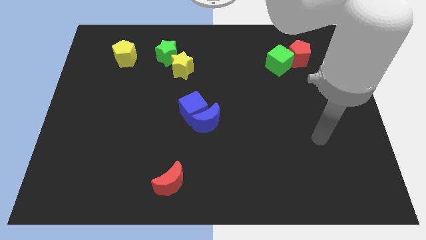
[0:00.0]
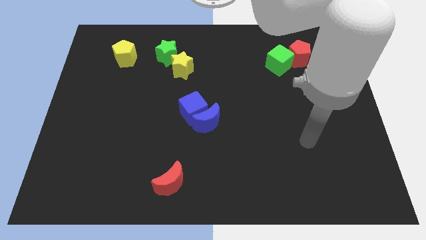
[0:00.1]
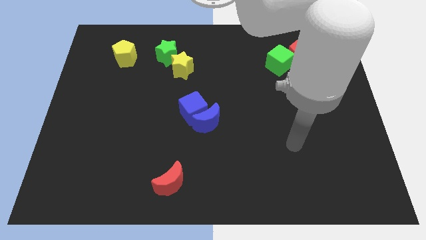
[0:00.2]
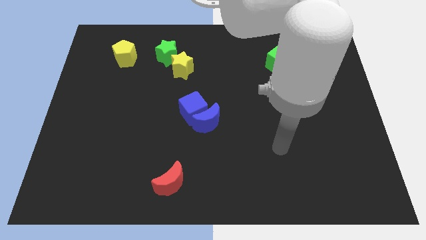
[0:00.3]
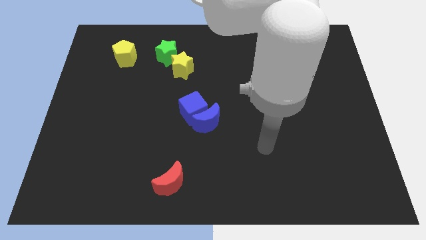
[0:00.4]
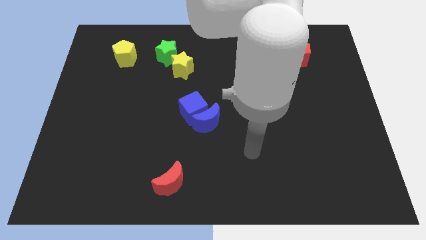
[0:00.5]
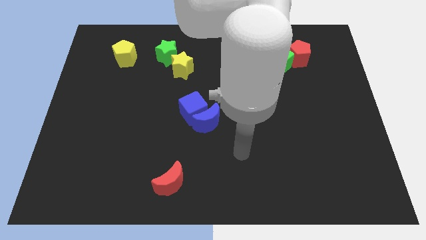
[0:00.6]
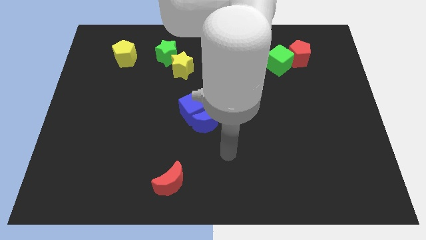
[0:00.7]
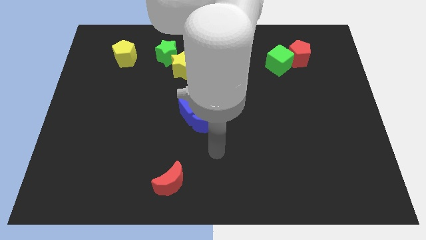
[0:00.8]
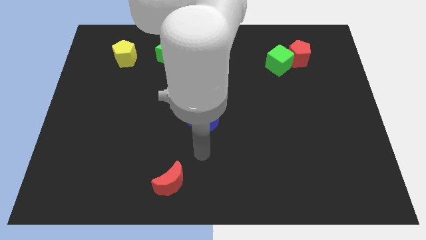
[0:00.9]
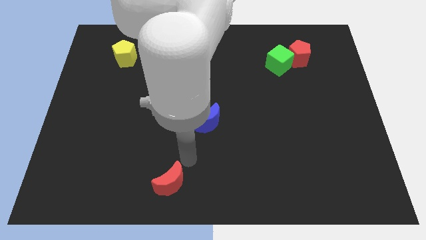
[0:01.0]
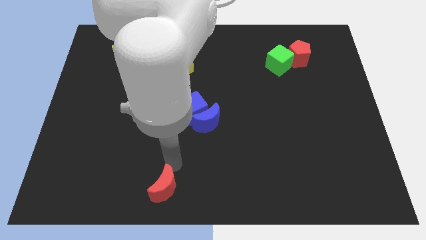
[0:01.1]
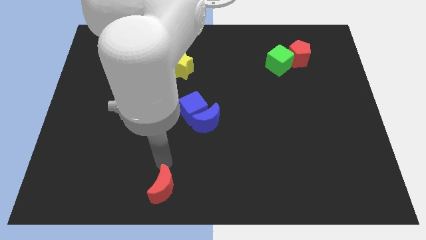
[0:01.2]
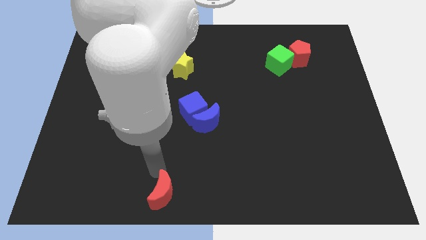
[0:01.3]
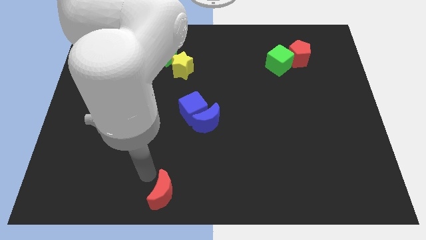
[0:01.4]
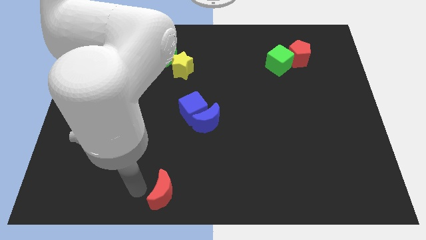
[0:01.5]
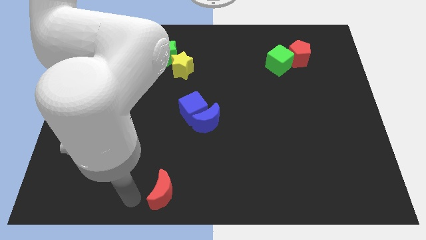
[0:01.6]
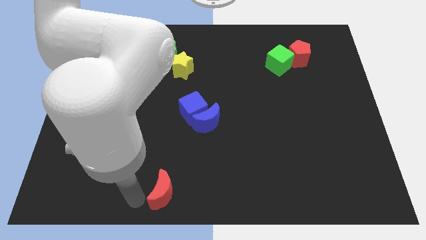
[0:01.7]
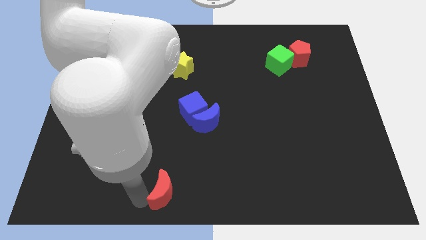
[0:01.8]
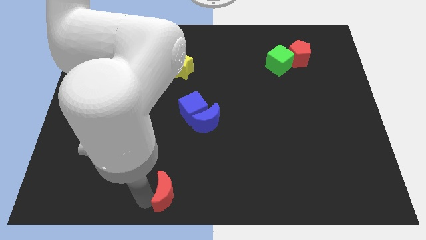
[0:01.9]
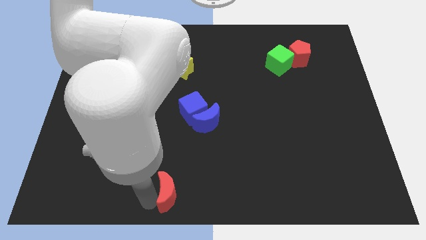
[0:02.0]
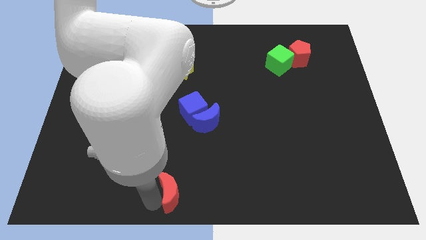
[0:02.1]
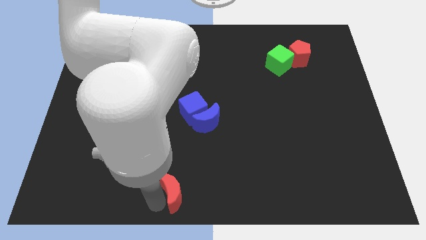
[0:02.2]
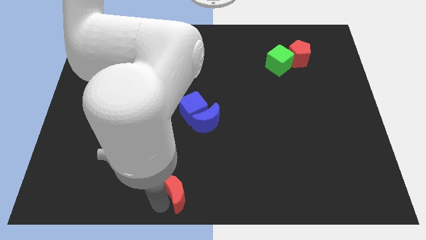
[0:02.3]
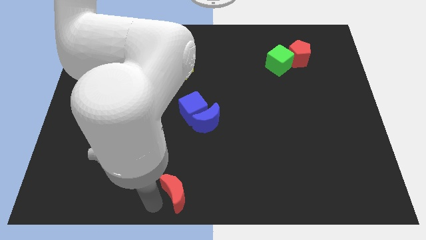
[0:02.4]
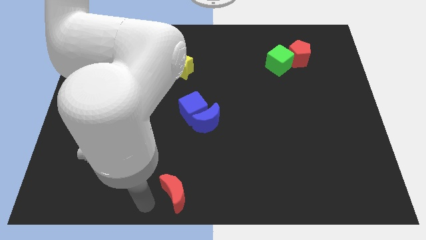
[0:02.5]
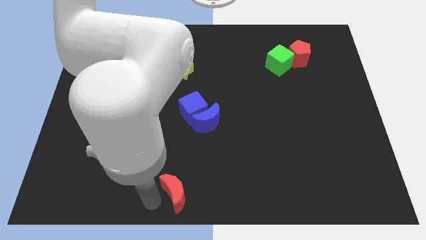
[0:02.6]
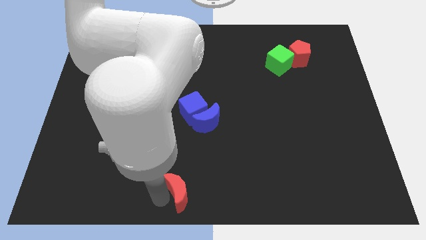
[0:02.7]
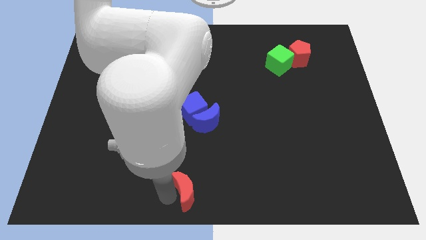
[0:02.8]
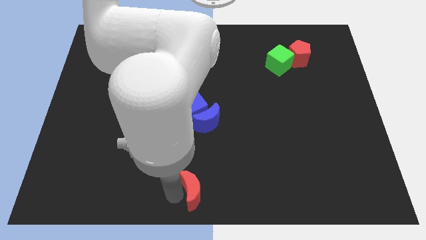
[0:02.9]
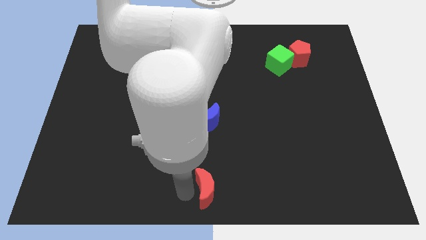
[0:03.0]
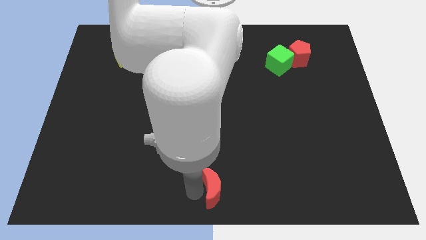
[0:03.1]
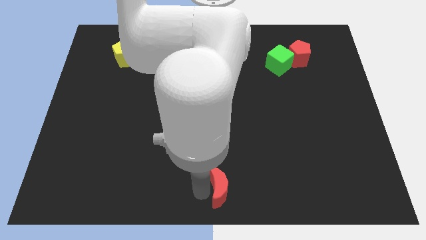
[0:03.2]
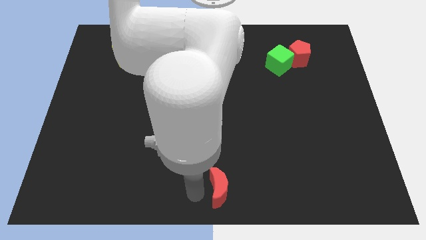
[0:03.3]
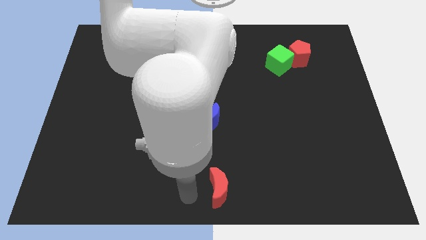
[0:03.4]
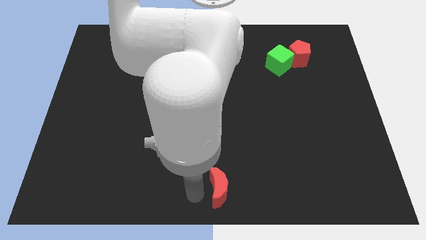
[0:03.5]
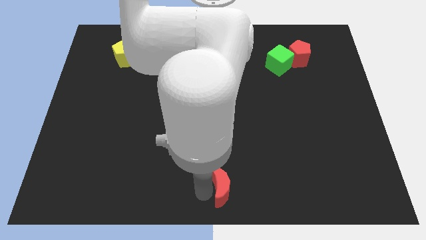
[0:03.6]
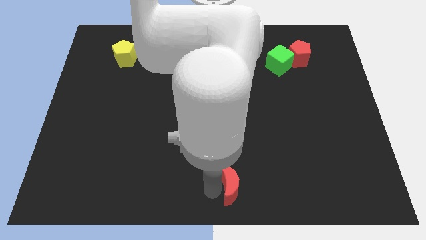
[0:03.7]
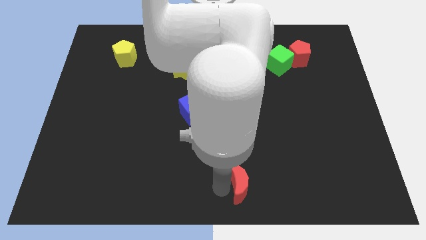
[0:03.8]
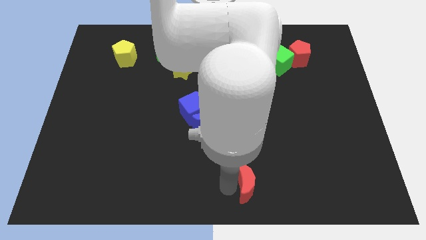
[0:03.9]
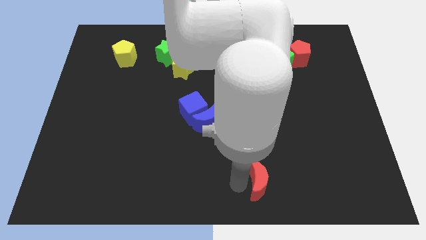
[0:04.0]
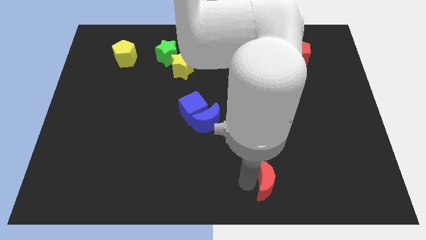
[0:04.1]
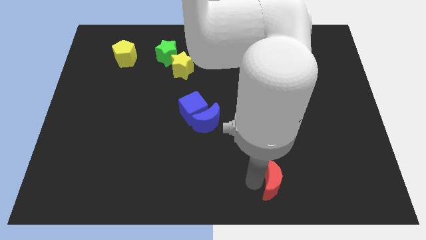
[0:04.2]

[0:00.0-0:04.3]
slide the red moon right

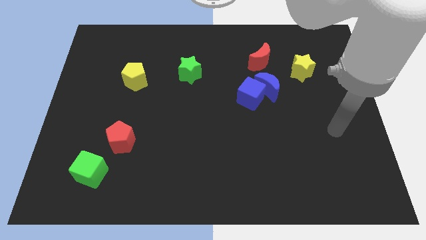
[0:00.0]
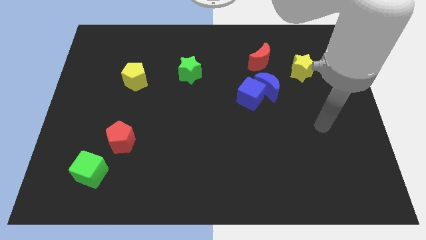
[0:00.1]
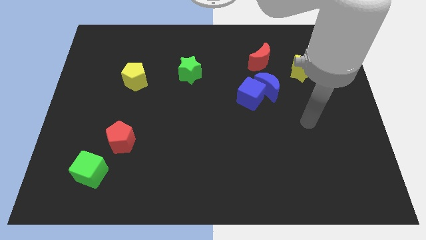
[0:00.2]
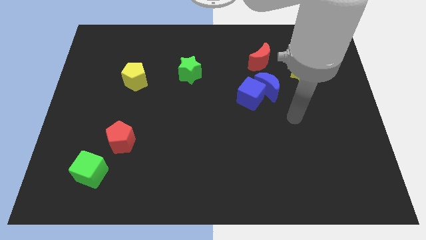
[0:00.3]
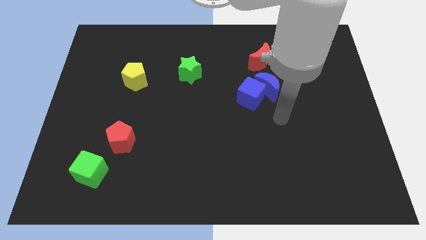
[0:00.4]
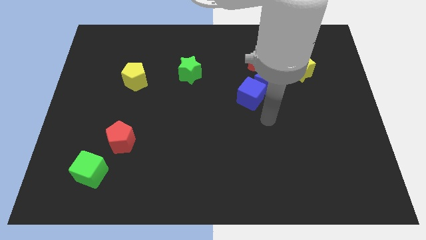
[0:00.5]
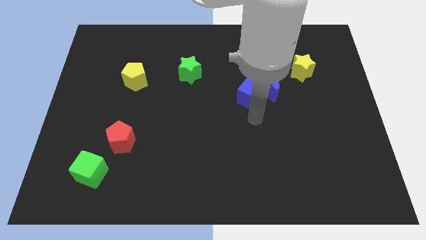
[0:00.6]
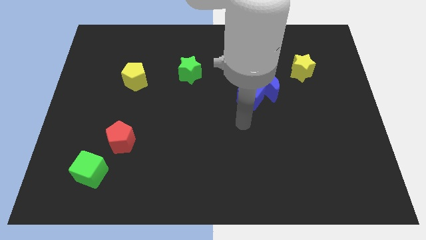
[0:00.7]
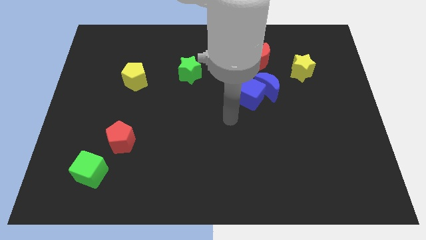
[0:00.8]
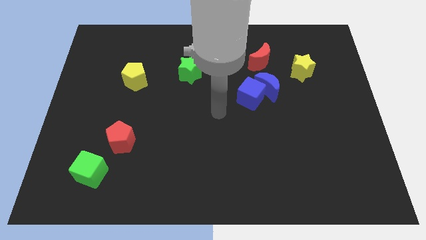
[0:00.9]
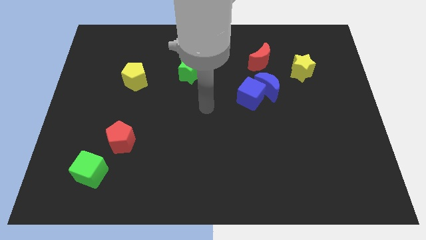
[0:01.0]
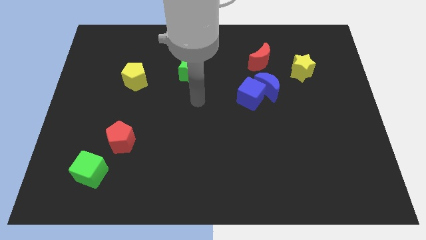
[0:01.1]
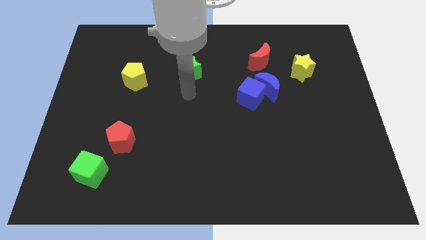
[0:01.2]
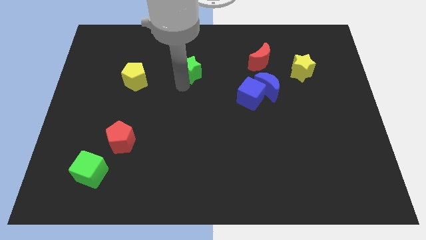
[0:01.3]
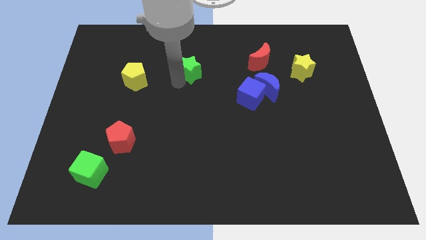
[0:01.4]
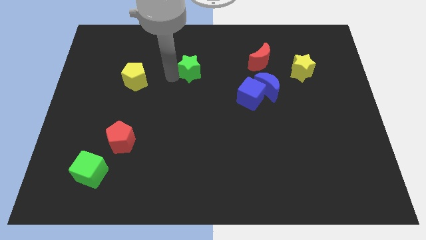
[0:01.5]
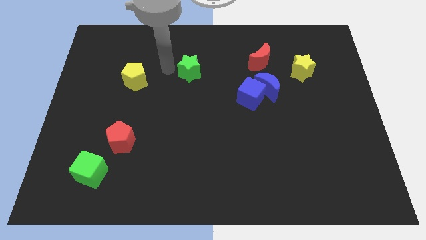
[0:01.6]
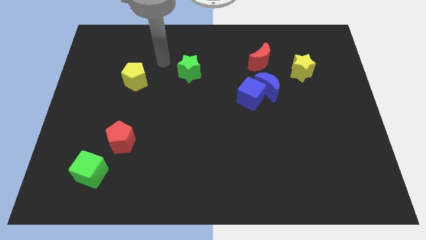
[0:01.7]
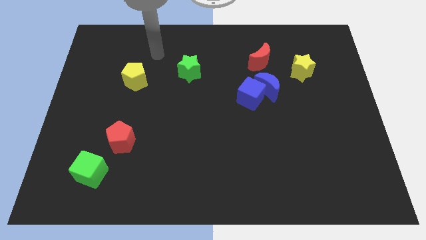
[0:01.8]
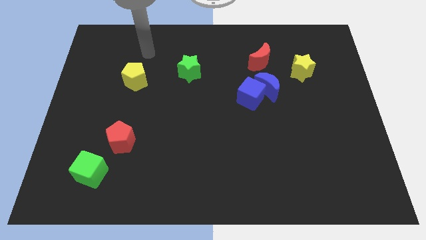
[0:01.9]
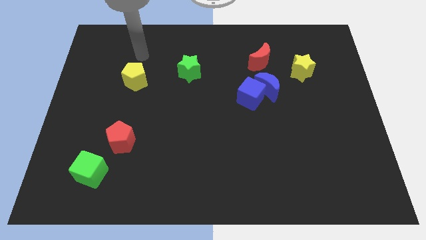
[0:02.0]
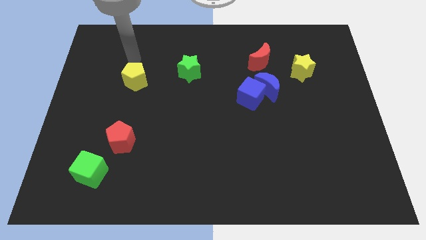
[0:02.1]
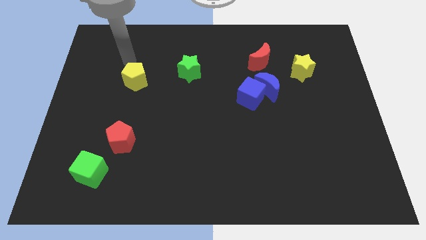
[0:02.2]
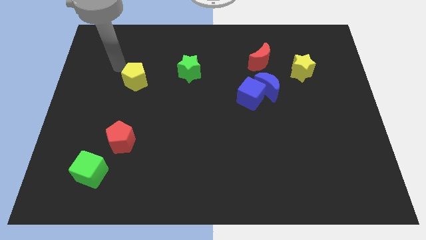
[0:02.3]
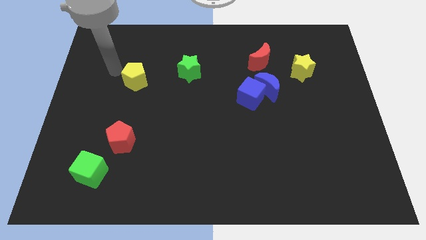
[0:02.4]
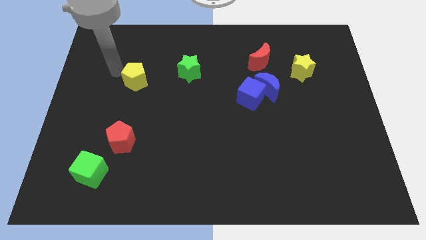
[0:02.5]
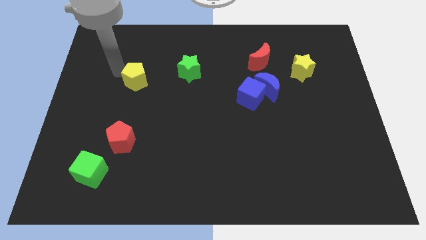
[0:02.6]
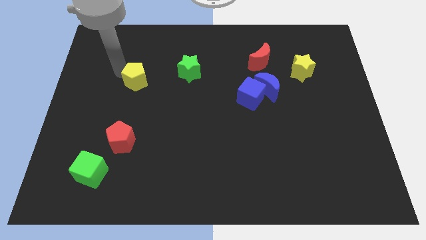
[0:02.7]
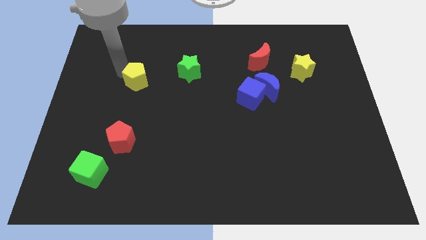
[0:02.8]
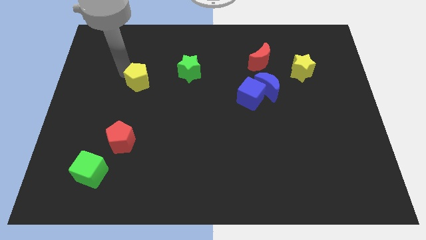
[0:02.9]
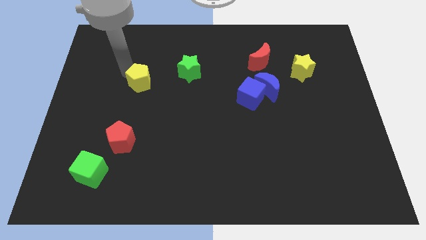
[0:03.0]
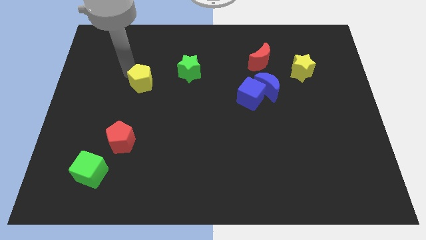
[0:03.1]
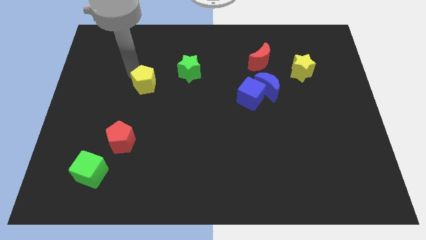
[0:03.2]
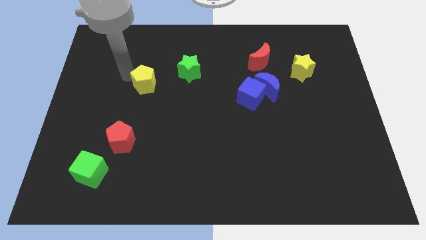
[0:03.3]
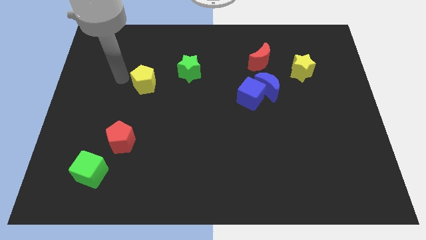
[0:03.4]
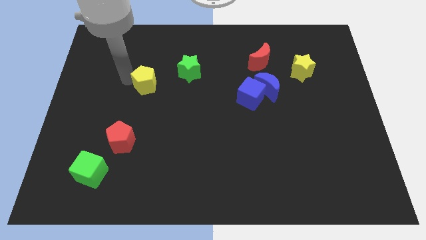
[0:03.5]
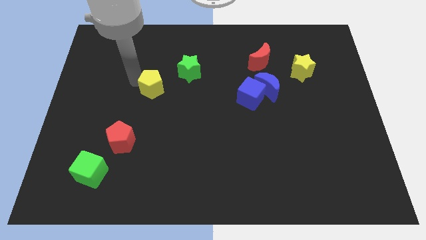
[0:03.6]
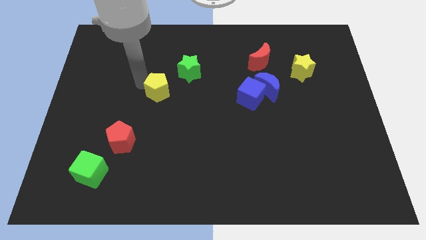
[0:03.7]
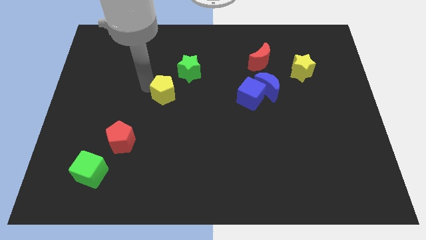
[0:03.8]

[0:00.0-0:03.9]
push the yellow pentagon a bit right
